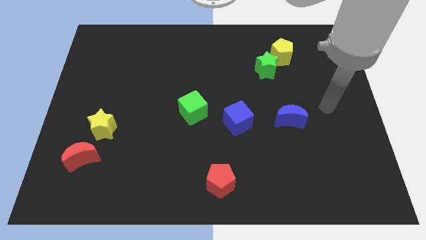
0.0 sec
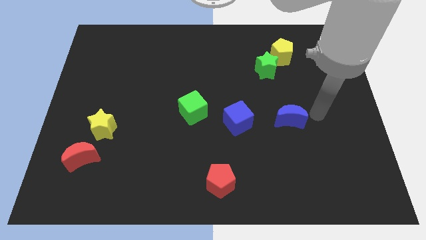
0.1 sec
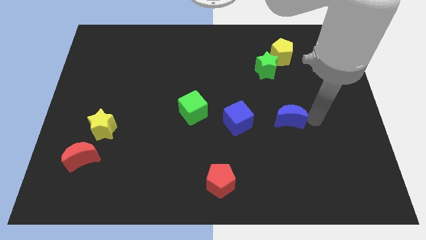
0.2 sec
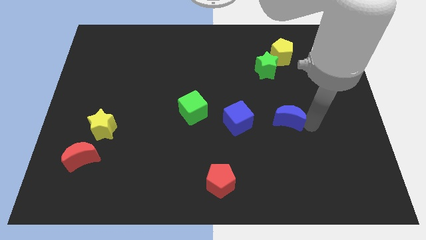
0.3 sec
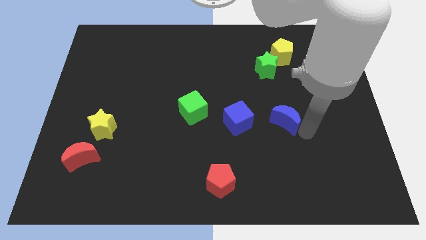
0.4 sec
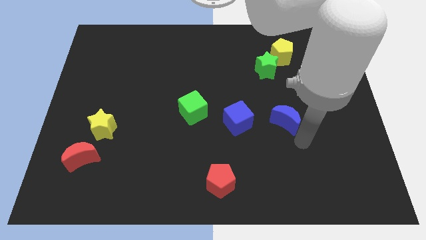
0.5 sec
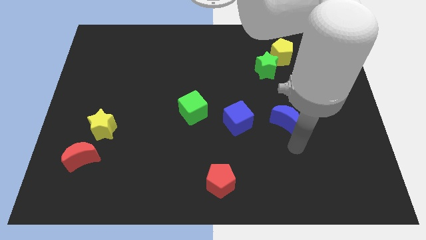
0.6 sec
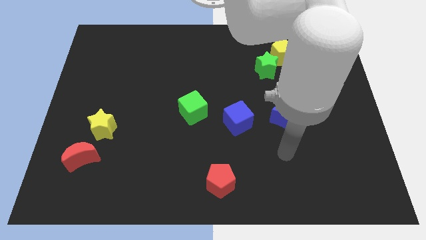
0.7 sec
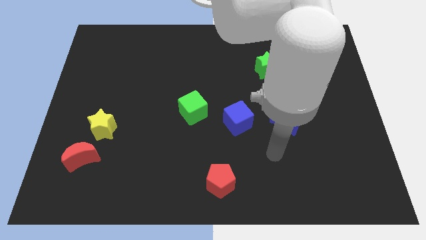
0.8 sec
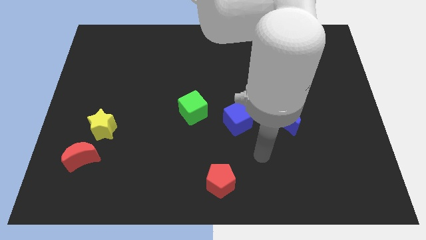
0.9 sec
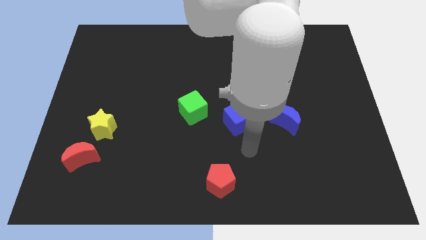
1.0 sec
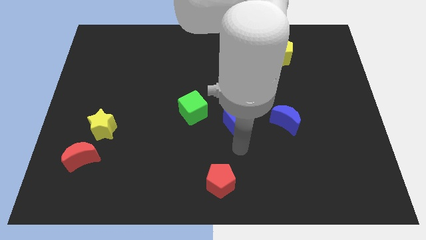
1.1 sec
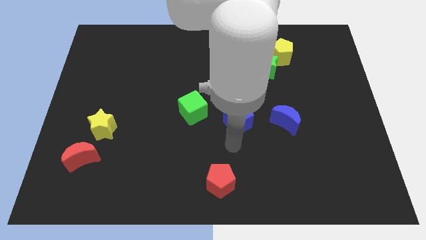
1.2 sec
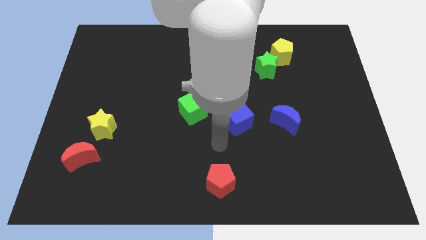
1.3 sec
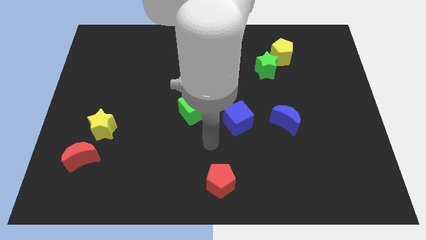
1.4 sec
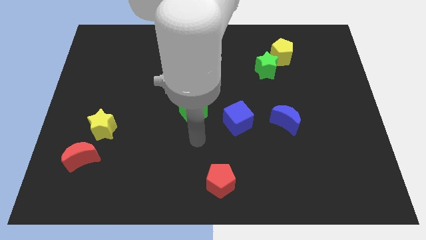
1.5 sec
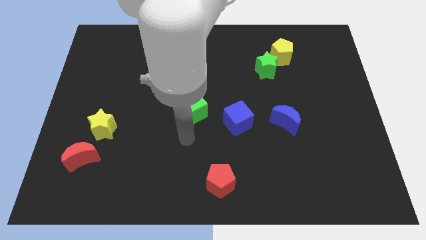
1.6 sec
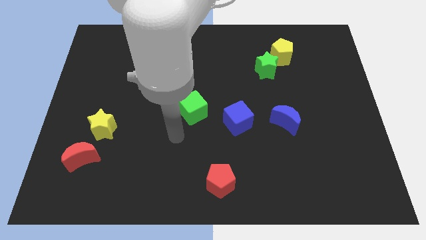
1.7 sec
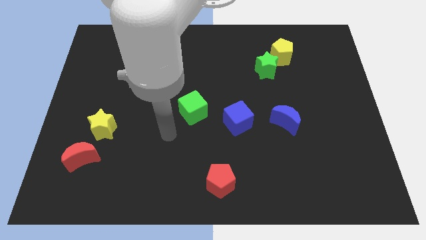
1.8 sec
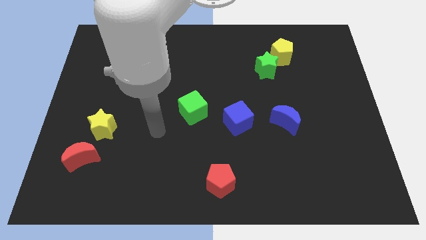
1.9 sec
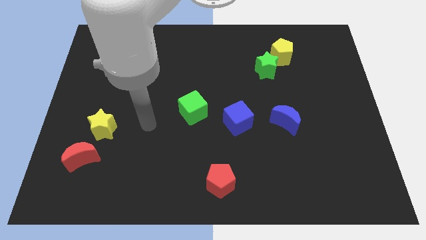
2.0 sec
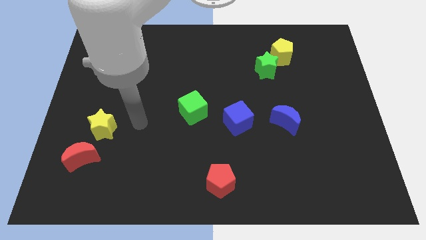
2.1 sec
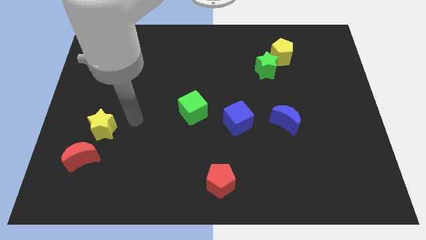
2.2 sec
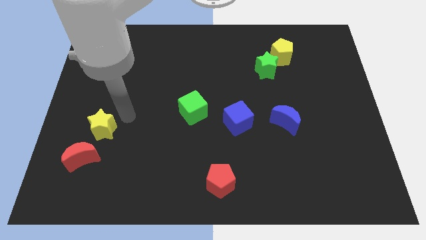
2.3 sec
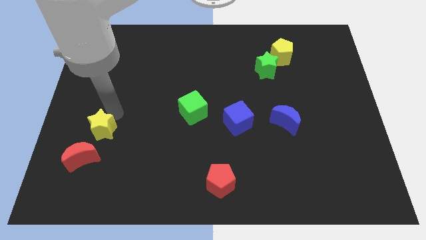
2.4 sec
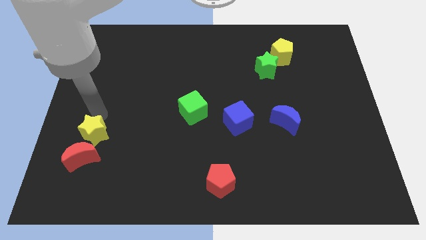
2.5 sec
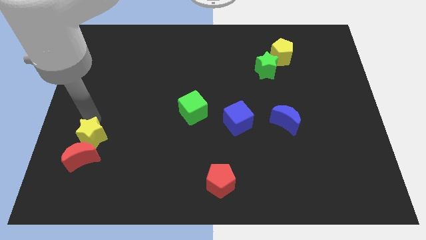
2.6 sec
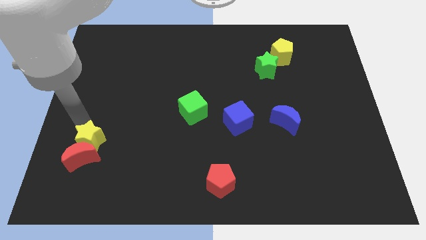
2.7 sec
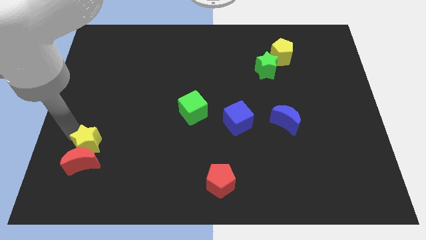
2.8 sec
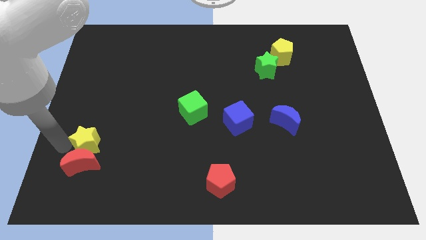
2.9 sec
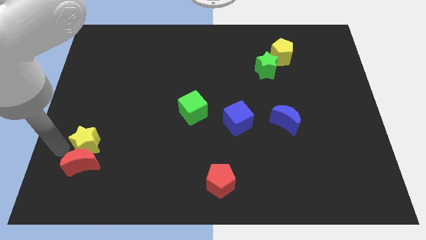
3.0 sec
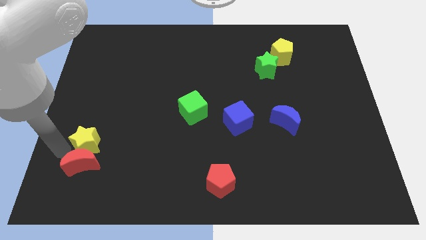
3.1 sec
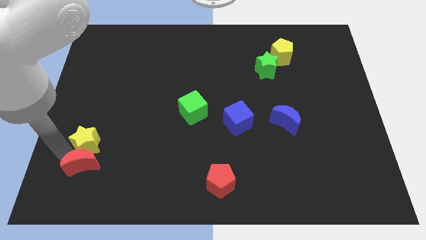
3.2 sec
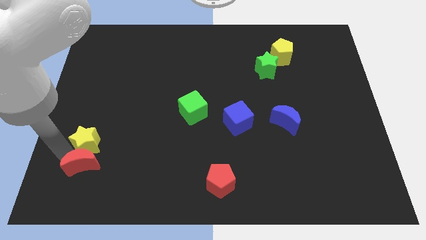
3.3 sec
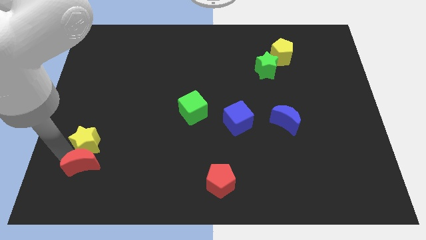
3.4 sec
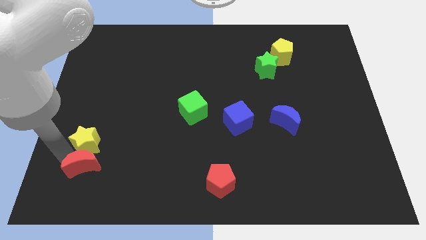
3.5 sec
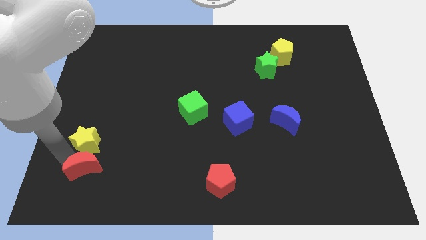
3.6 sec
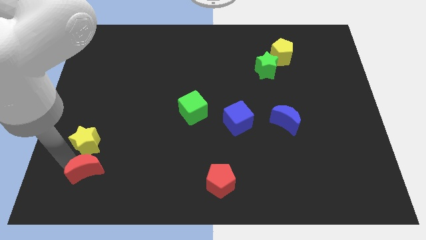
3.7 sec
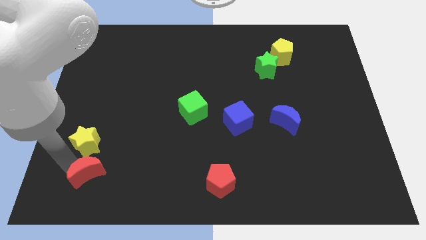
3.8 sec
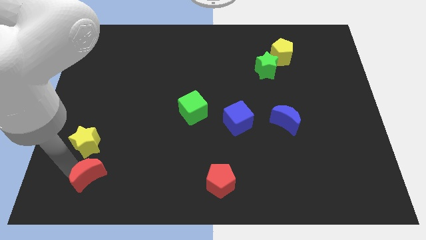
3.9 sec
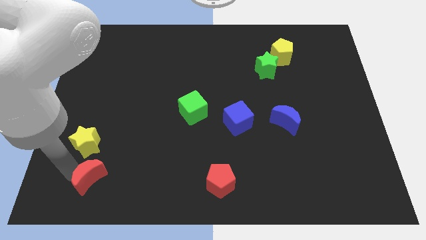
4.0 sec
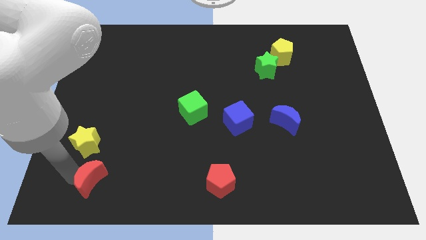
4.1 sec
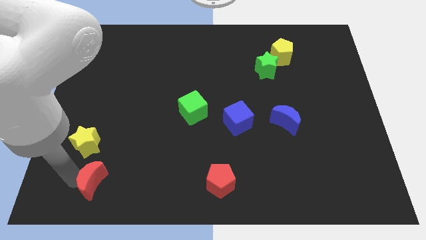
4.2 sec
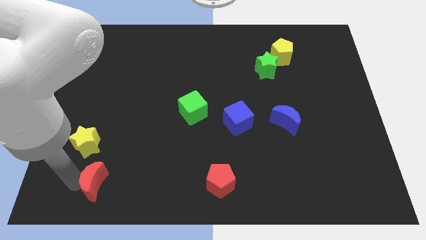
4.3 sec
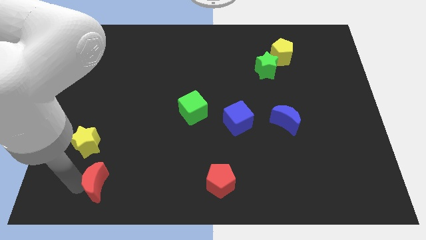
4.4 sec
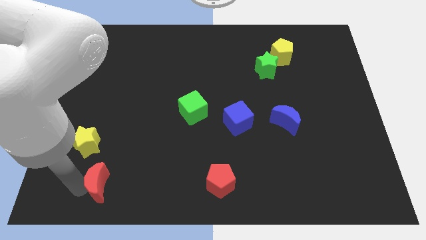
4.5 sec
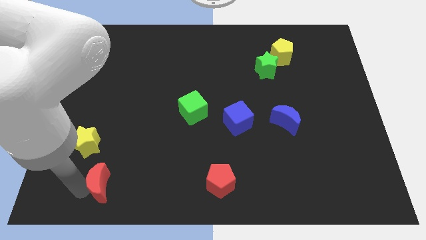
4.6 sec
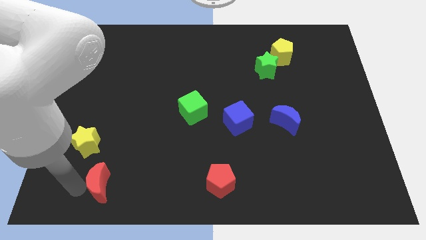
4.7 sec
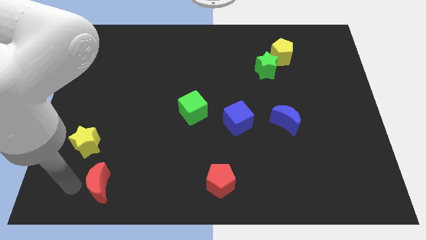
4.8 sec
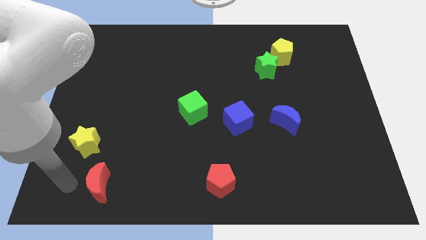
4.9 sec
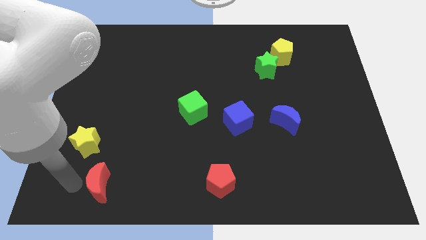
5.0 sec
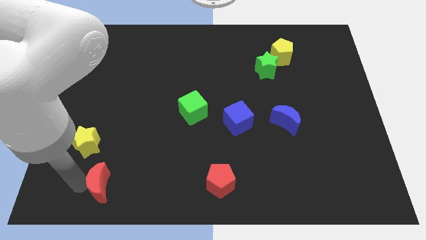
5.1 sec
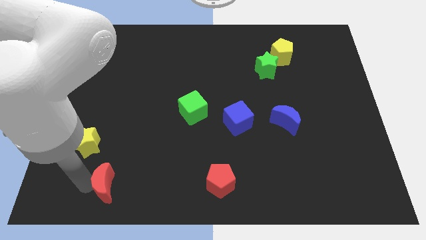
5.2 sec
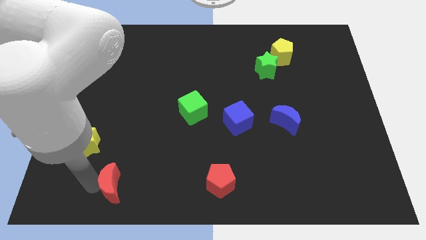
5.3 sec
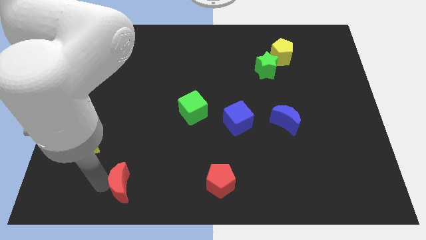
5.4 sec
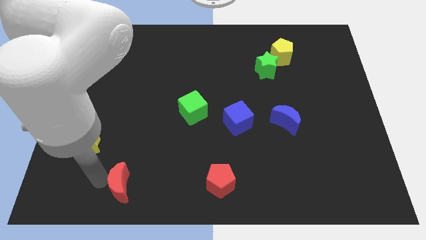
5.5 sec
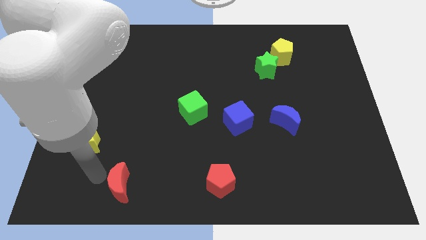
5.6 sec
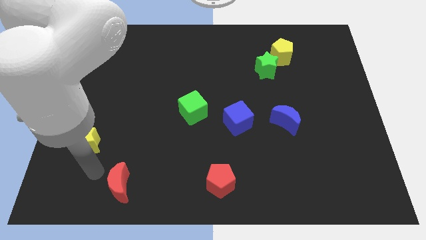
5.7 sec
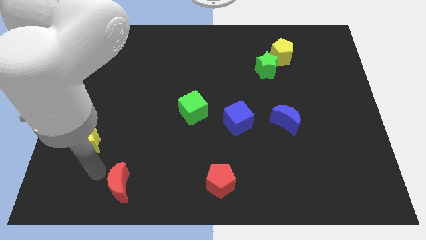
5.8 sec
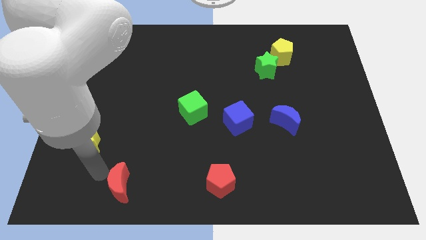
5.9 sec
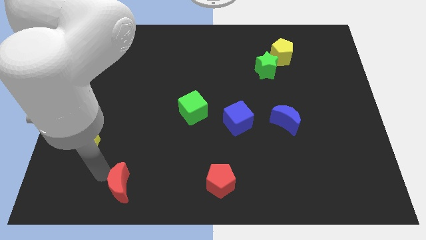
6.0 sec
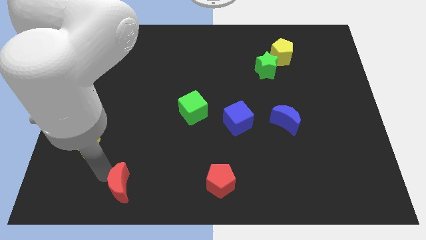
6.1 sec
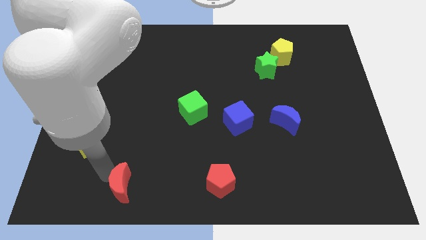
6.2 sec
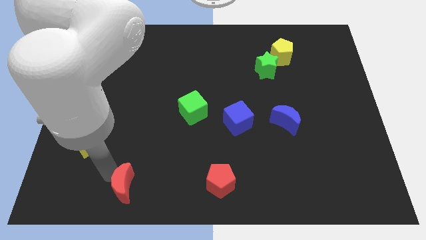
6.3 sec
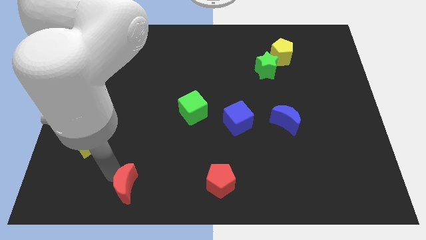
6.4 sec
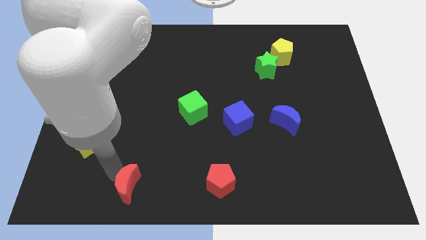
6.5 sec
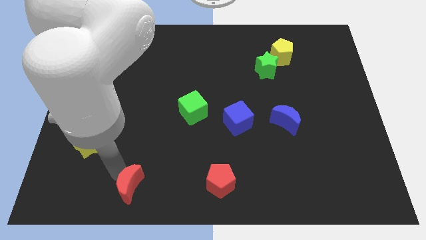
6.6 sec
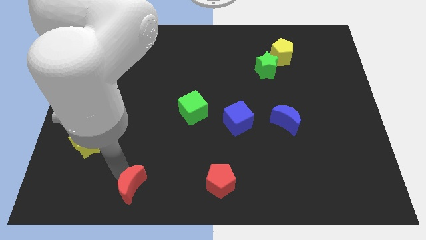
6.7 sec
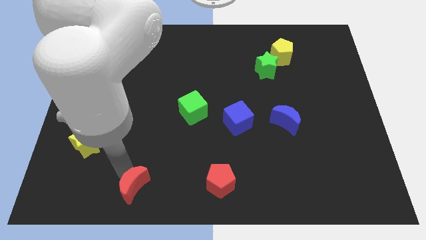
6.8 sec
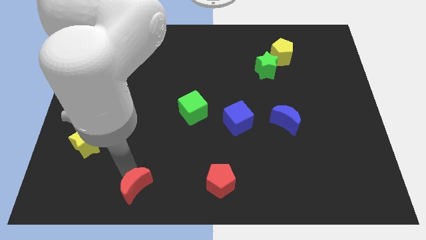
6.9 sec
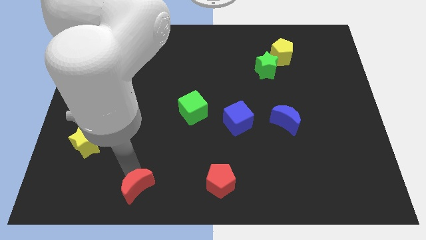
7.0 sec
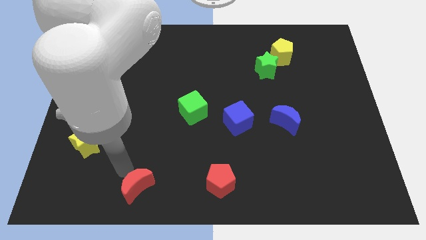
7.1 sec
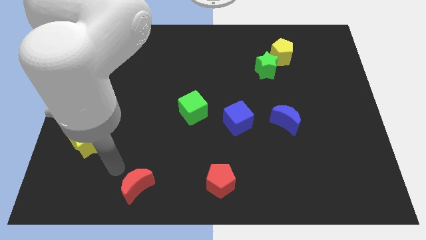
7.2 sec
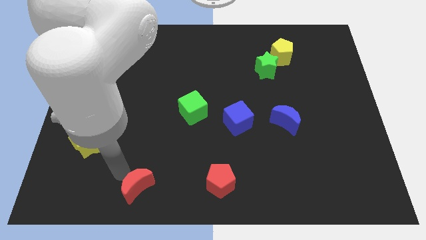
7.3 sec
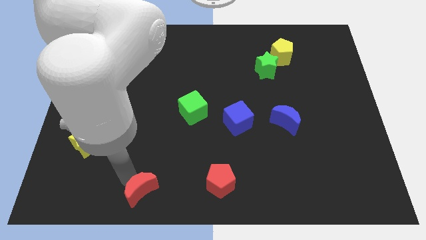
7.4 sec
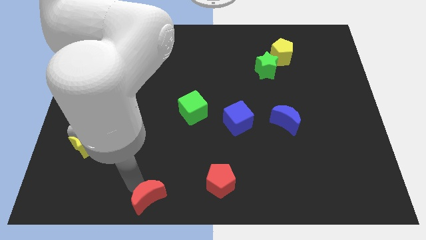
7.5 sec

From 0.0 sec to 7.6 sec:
move the red moon to the bottom
